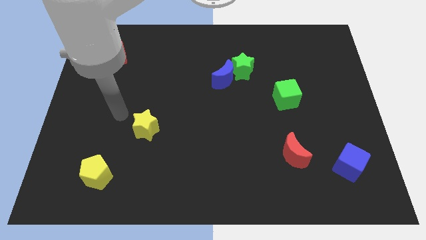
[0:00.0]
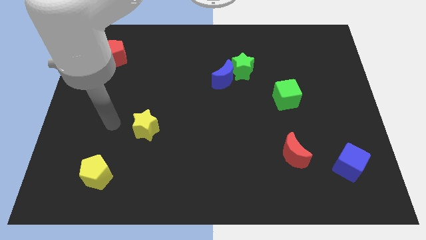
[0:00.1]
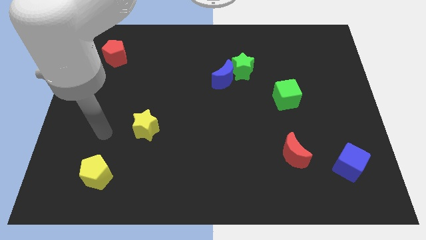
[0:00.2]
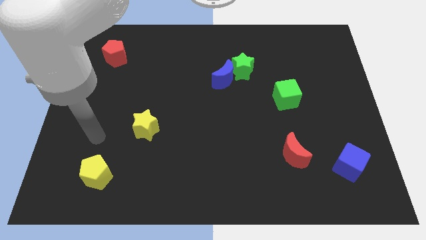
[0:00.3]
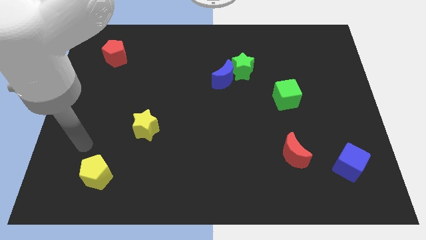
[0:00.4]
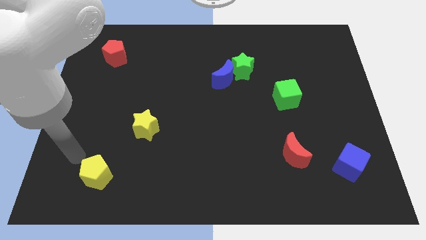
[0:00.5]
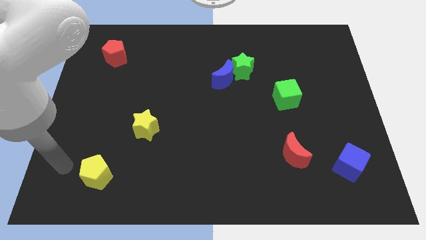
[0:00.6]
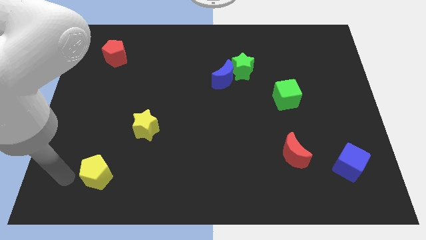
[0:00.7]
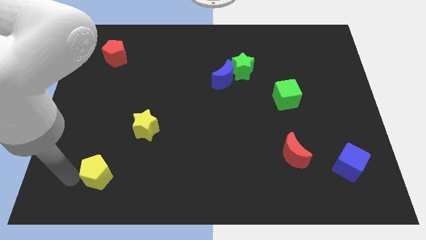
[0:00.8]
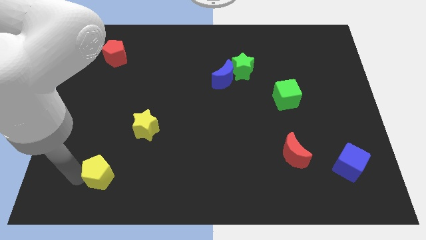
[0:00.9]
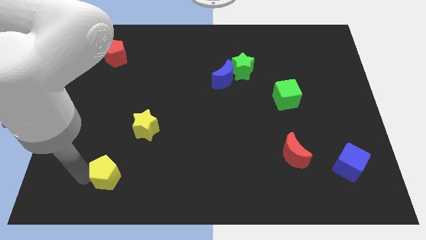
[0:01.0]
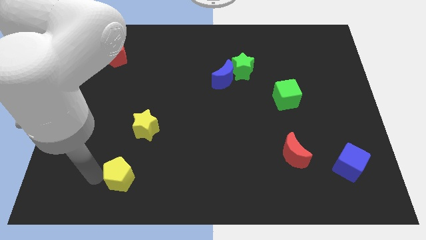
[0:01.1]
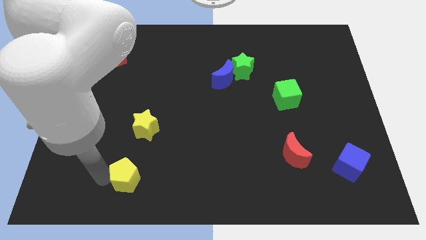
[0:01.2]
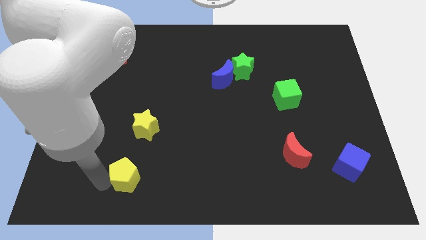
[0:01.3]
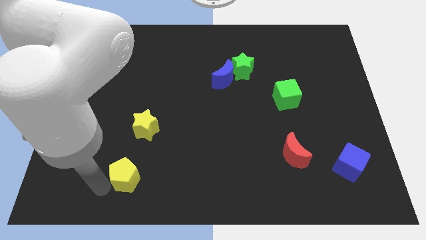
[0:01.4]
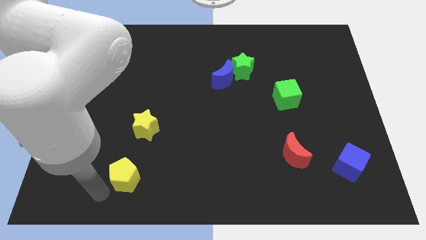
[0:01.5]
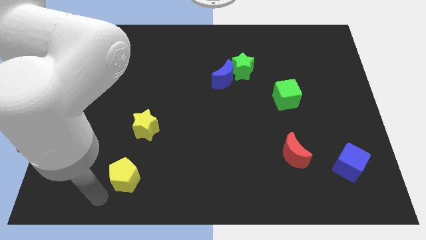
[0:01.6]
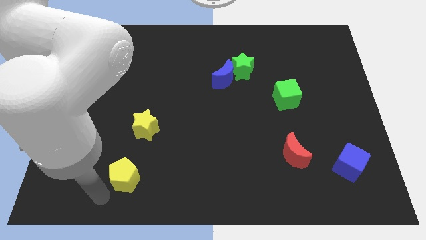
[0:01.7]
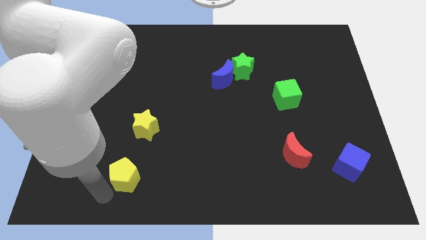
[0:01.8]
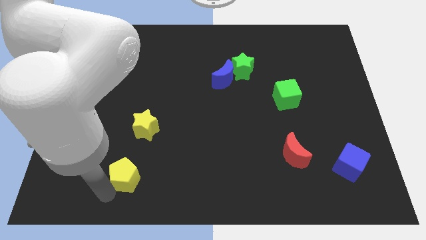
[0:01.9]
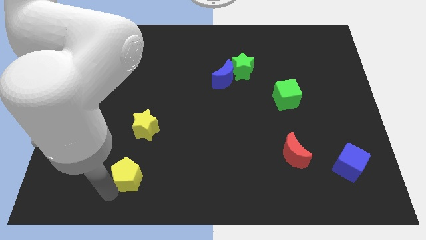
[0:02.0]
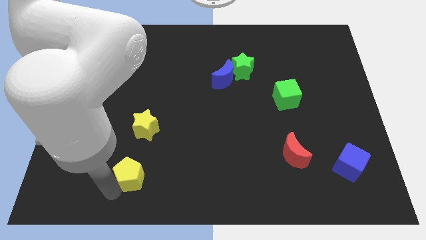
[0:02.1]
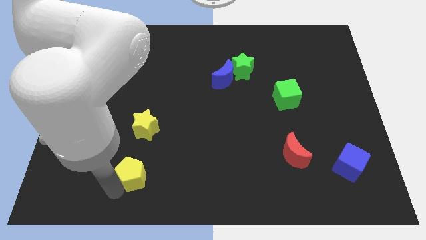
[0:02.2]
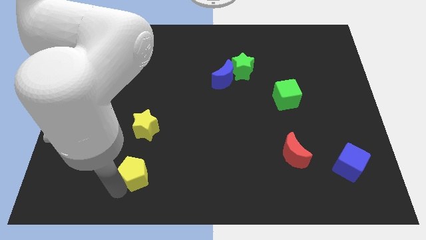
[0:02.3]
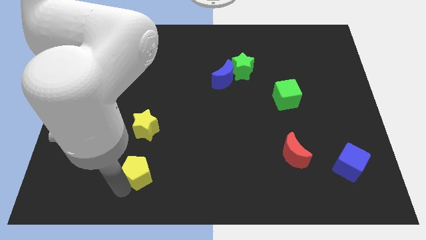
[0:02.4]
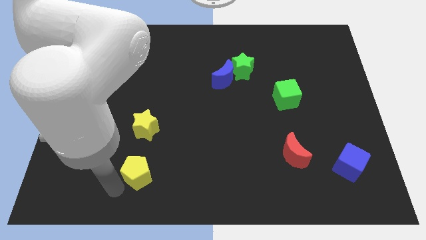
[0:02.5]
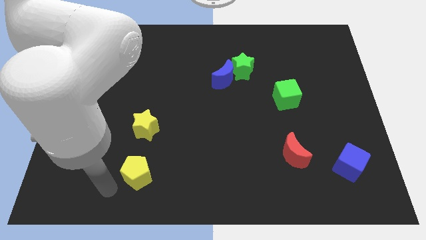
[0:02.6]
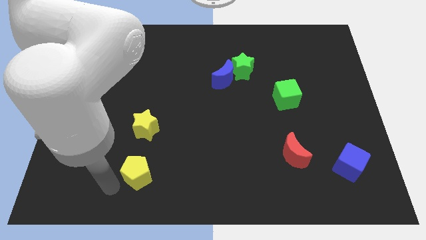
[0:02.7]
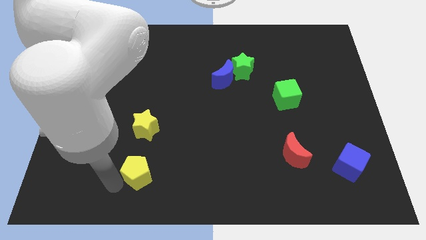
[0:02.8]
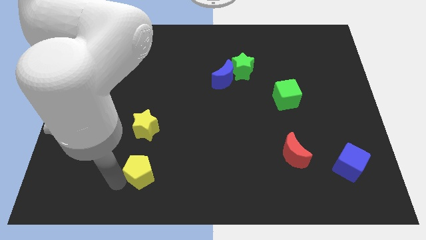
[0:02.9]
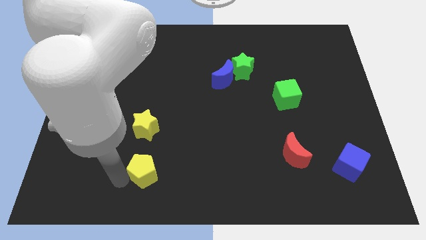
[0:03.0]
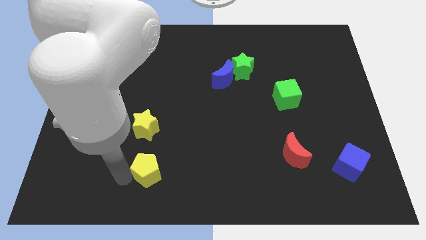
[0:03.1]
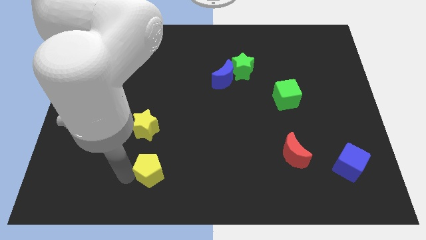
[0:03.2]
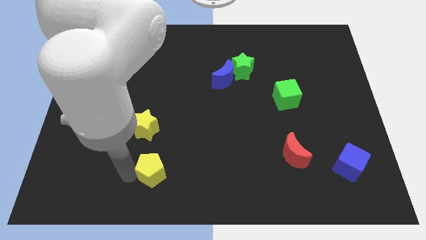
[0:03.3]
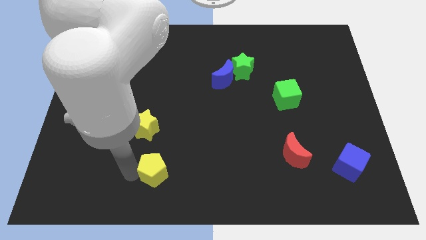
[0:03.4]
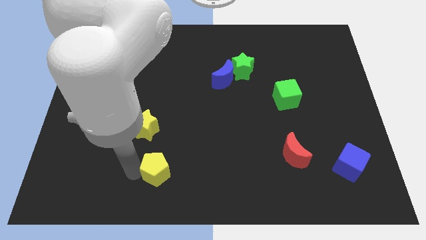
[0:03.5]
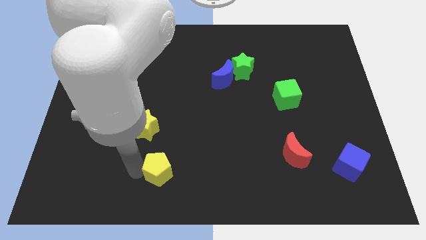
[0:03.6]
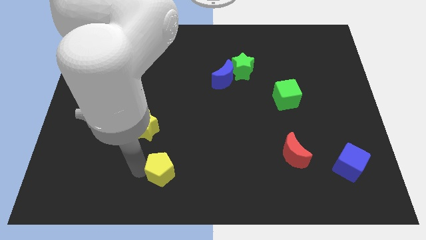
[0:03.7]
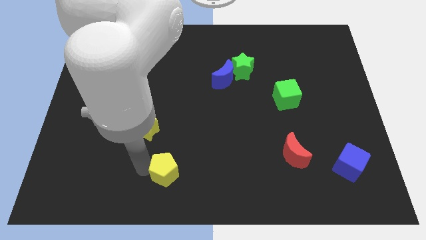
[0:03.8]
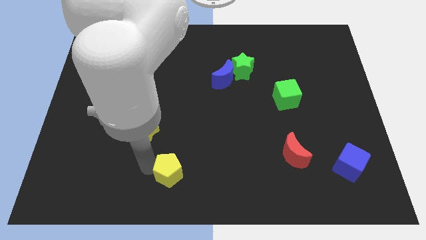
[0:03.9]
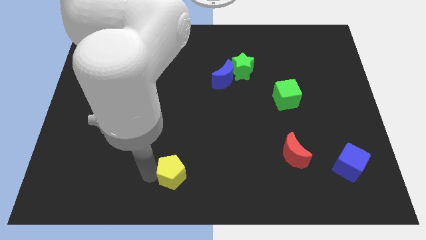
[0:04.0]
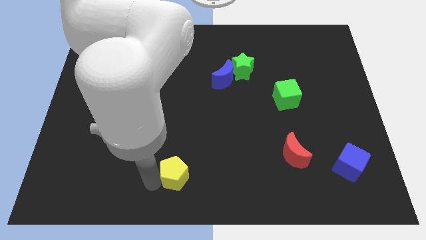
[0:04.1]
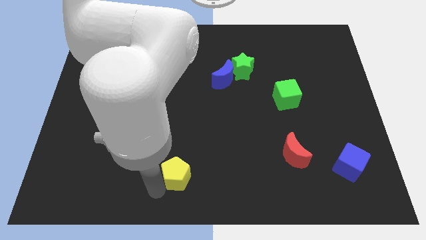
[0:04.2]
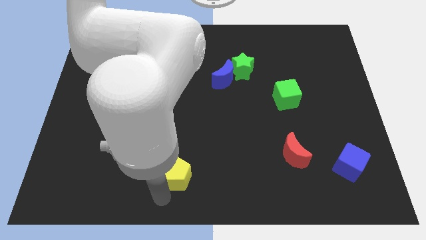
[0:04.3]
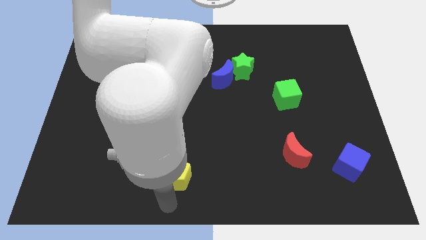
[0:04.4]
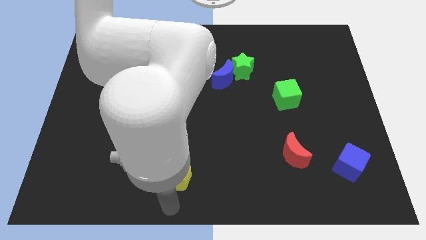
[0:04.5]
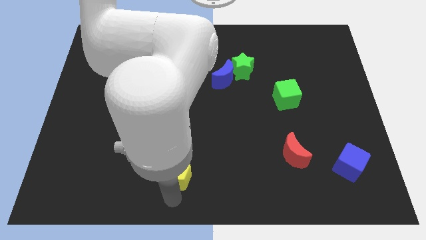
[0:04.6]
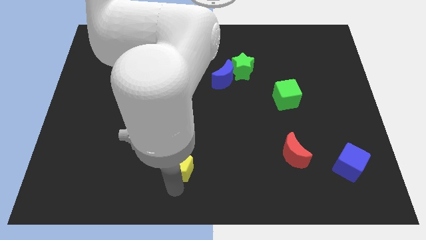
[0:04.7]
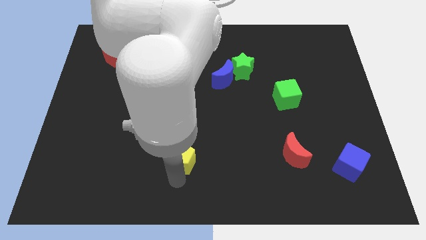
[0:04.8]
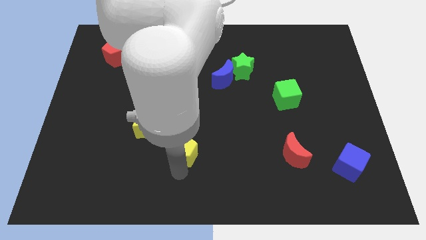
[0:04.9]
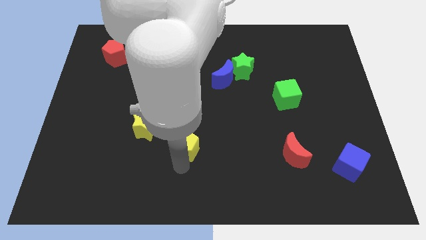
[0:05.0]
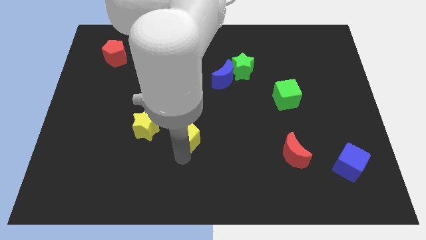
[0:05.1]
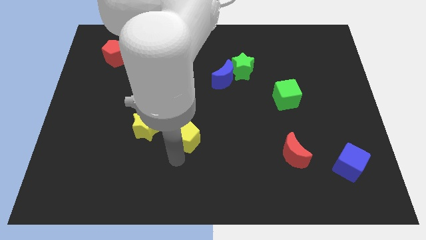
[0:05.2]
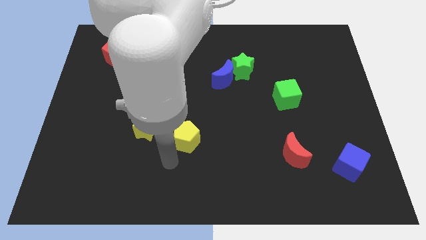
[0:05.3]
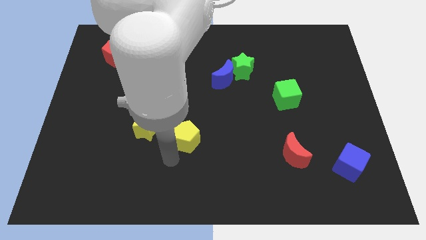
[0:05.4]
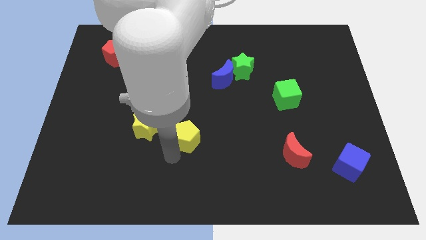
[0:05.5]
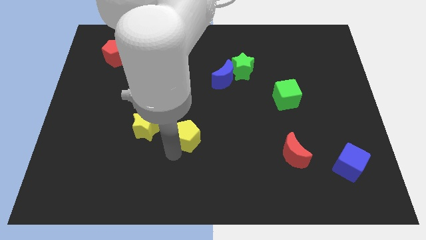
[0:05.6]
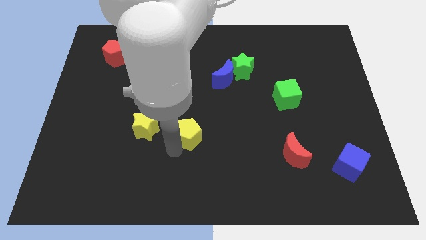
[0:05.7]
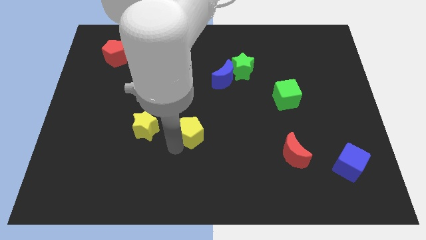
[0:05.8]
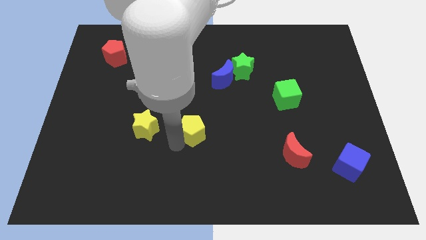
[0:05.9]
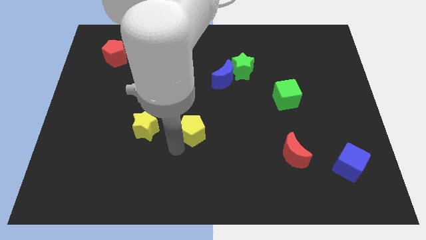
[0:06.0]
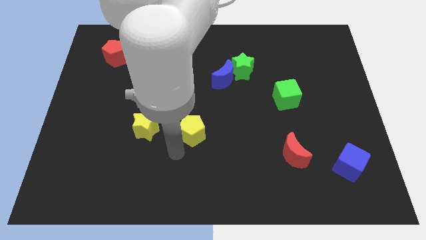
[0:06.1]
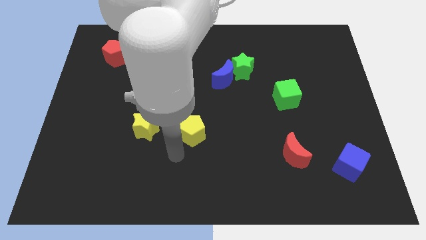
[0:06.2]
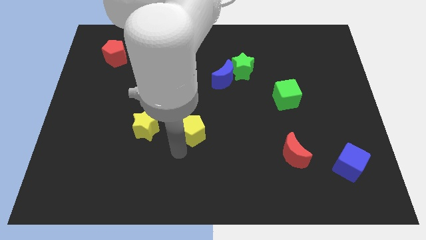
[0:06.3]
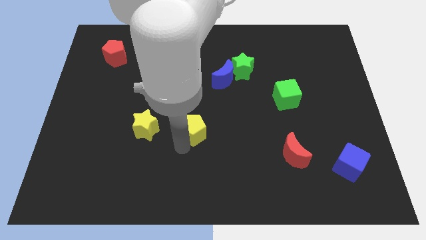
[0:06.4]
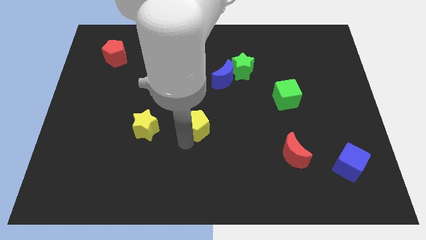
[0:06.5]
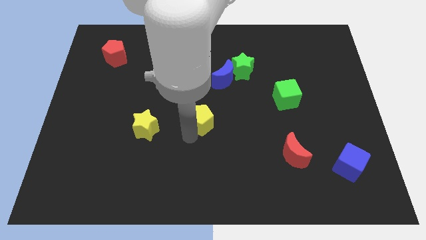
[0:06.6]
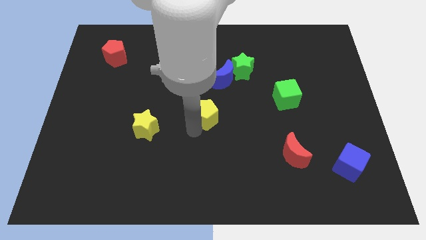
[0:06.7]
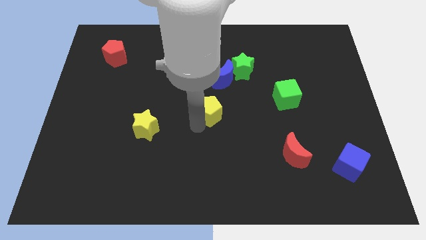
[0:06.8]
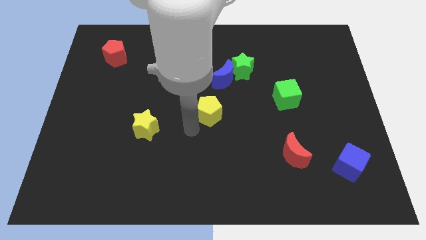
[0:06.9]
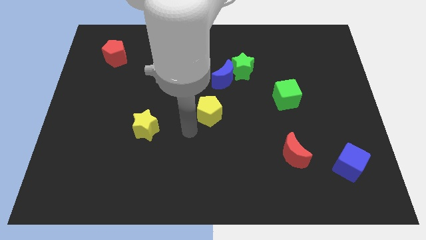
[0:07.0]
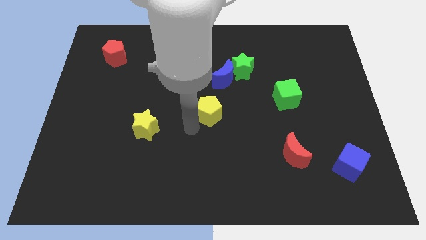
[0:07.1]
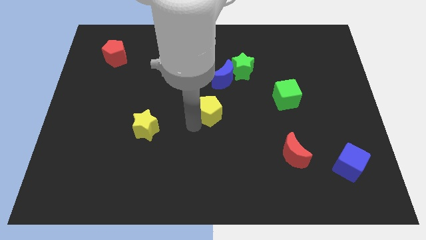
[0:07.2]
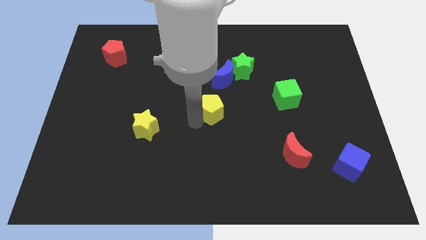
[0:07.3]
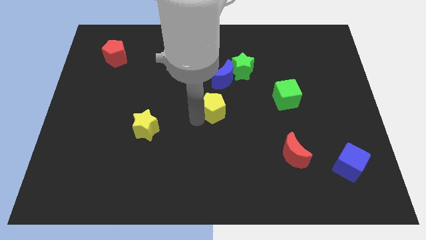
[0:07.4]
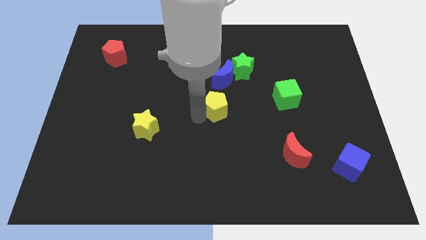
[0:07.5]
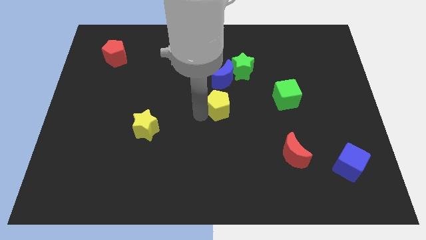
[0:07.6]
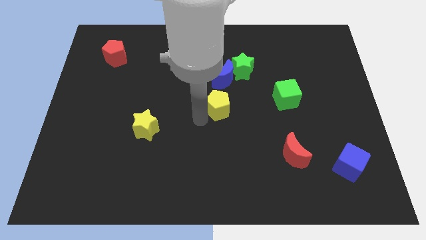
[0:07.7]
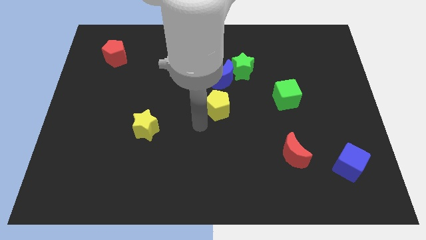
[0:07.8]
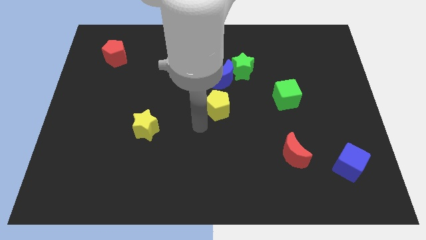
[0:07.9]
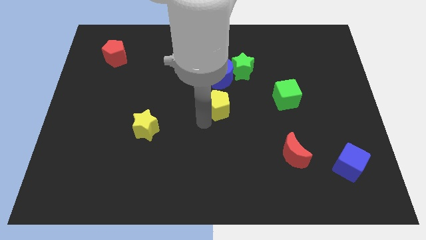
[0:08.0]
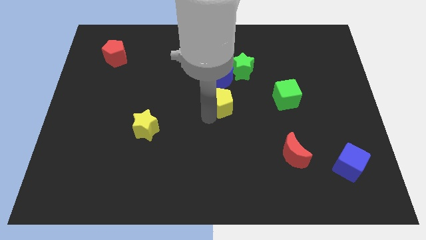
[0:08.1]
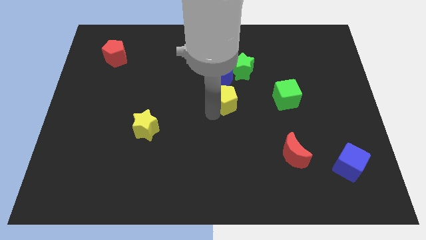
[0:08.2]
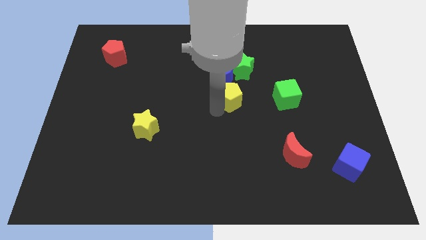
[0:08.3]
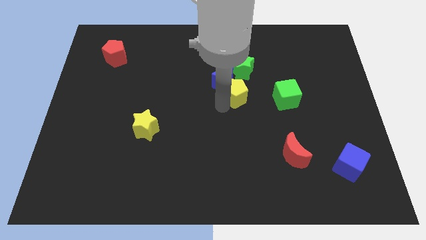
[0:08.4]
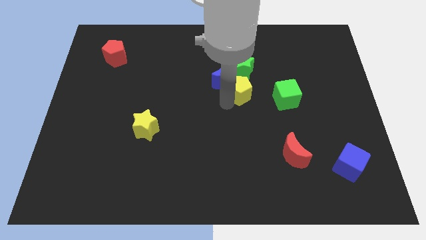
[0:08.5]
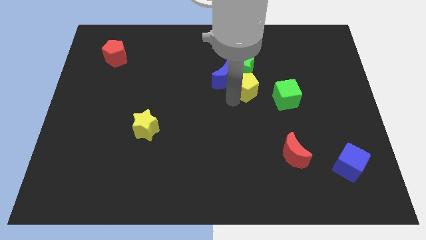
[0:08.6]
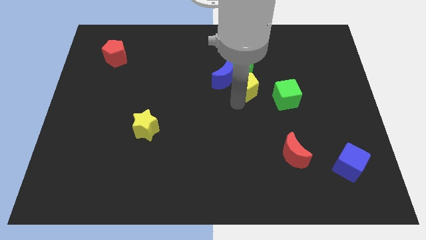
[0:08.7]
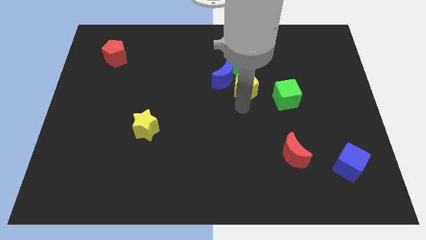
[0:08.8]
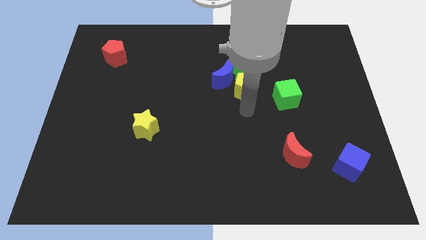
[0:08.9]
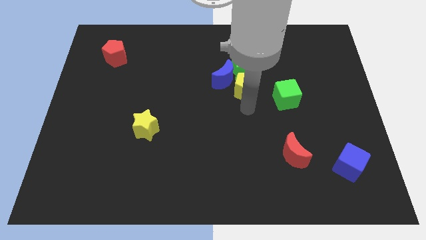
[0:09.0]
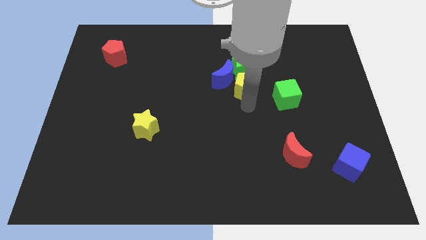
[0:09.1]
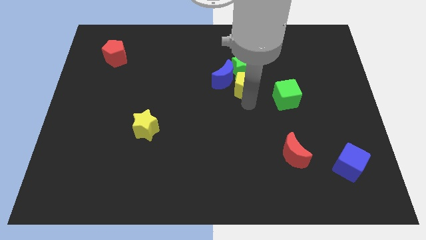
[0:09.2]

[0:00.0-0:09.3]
slide the yellow pentagon close to the green star
